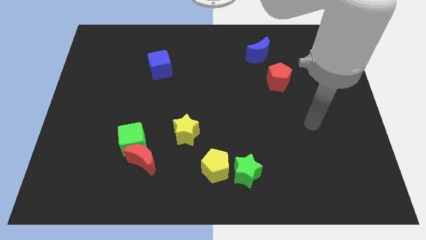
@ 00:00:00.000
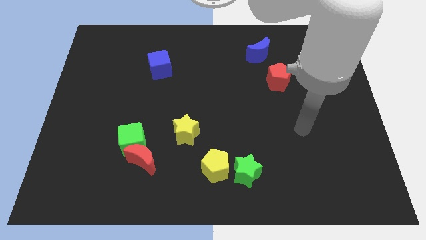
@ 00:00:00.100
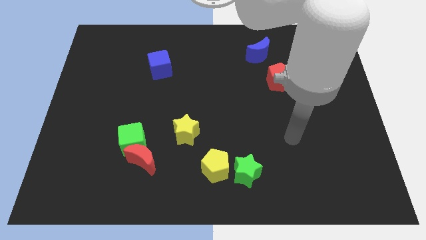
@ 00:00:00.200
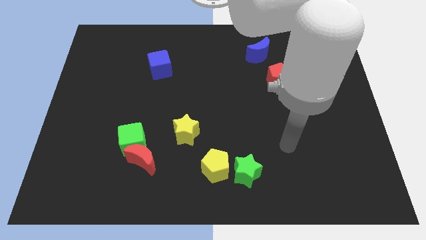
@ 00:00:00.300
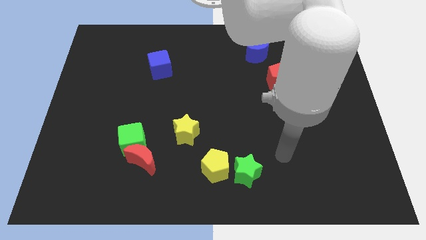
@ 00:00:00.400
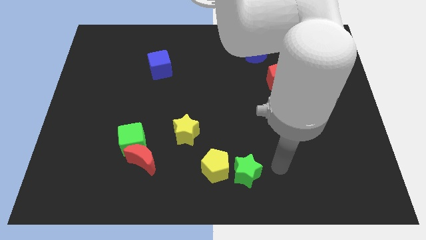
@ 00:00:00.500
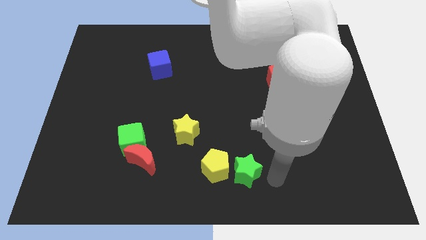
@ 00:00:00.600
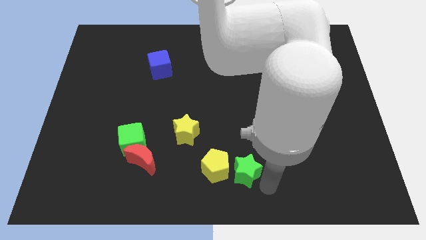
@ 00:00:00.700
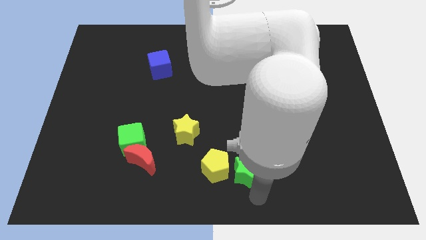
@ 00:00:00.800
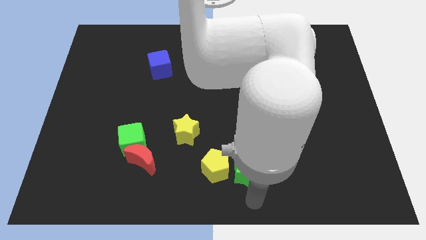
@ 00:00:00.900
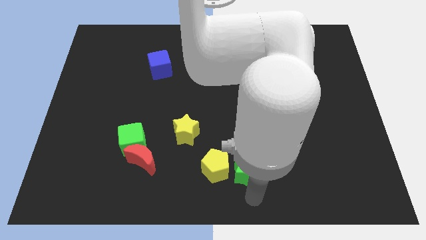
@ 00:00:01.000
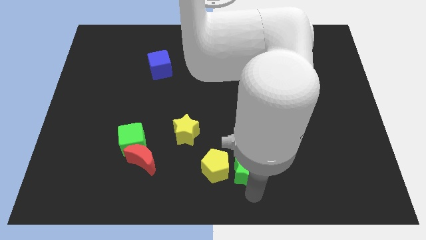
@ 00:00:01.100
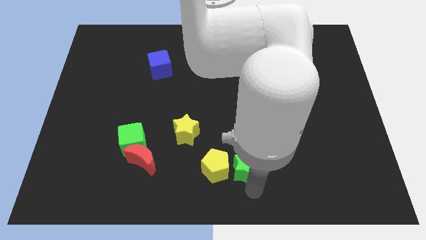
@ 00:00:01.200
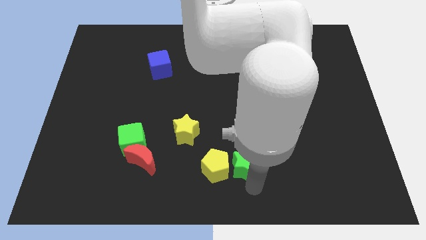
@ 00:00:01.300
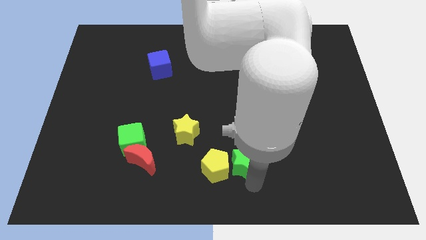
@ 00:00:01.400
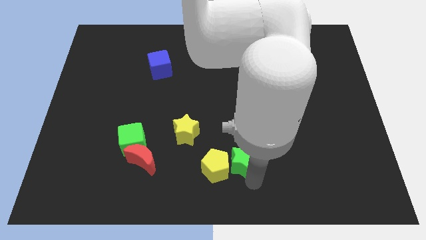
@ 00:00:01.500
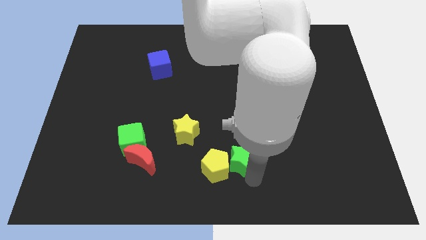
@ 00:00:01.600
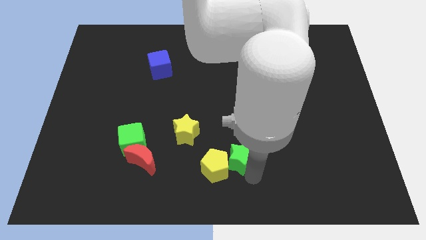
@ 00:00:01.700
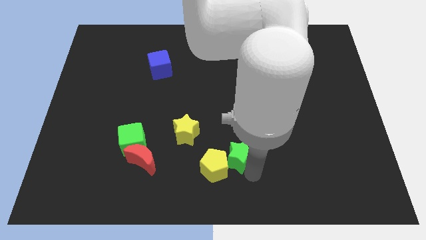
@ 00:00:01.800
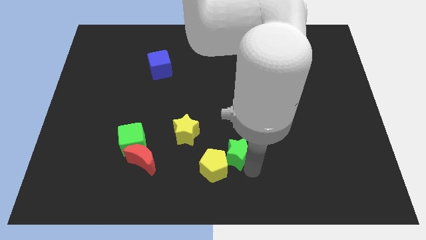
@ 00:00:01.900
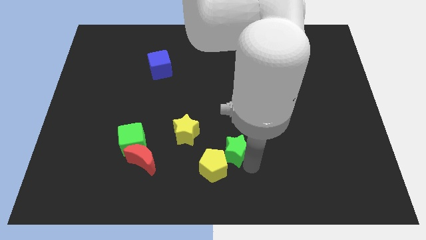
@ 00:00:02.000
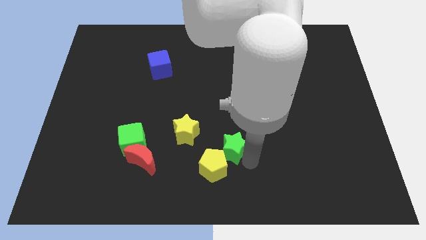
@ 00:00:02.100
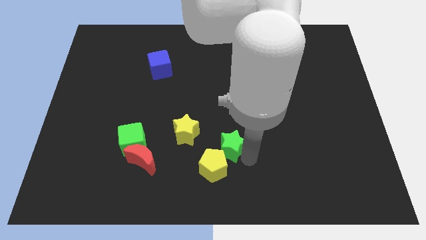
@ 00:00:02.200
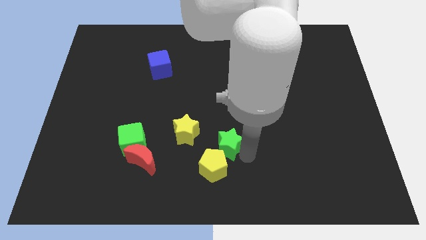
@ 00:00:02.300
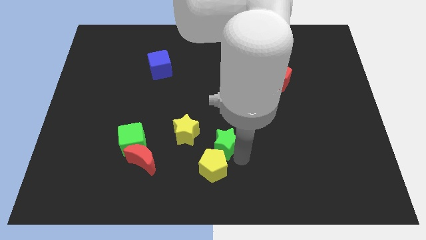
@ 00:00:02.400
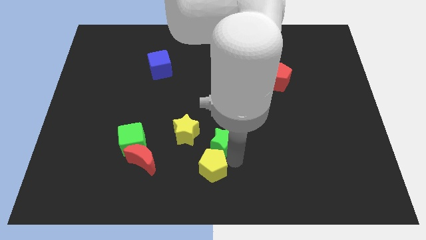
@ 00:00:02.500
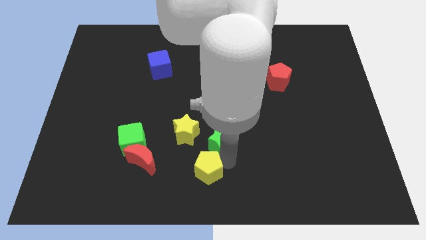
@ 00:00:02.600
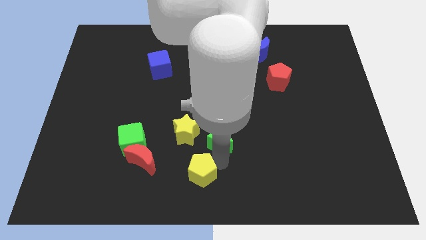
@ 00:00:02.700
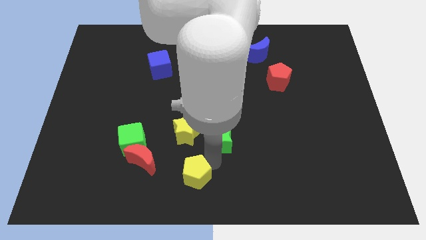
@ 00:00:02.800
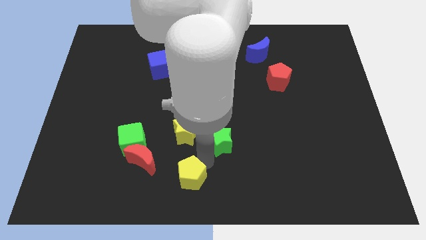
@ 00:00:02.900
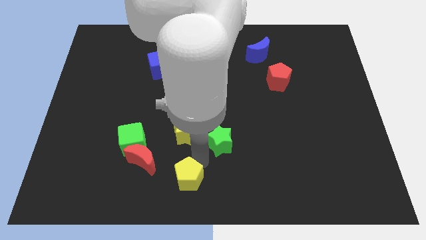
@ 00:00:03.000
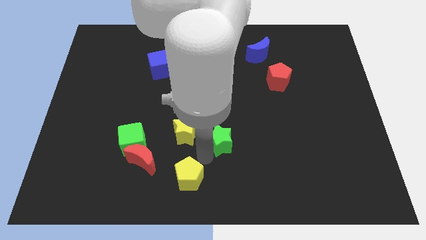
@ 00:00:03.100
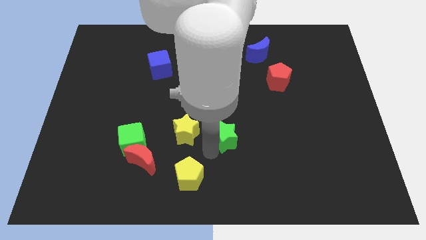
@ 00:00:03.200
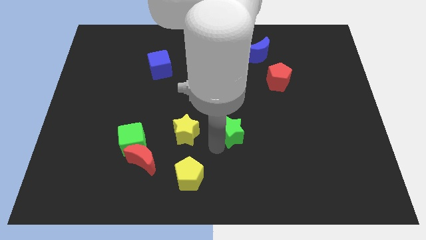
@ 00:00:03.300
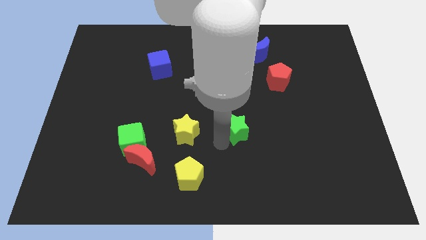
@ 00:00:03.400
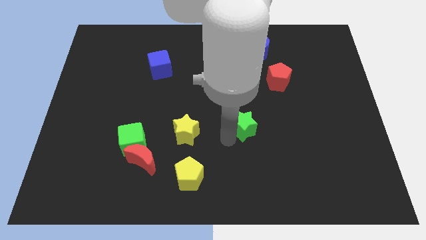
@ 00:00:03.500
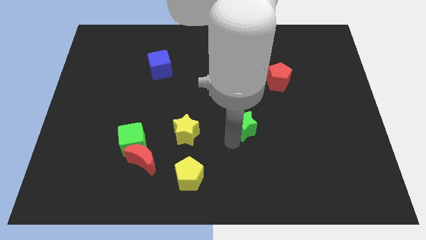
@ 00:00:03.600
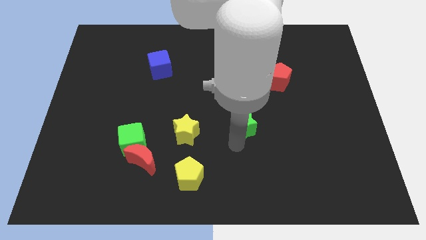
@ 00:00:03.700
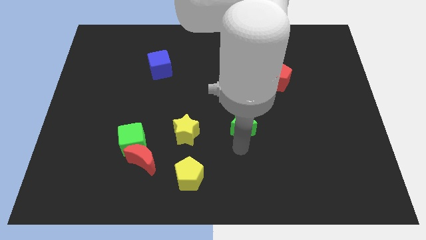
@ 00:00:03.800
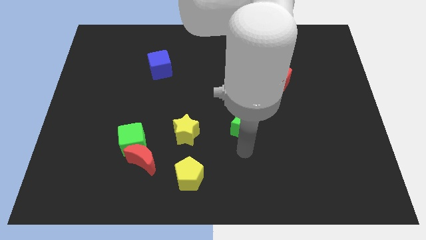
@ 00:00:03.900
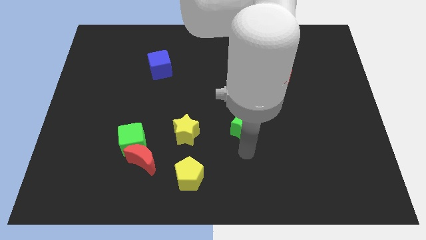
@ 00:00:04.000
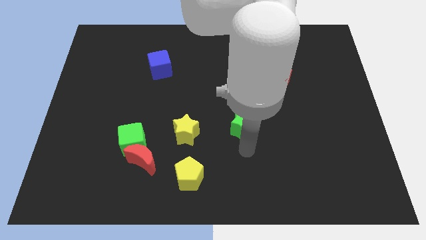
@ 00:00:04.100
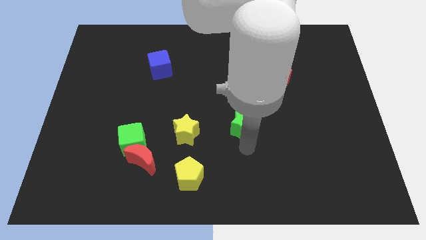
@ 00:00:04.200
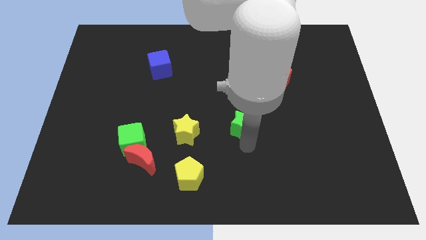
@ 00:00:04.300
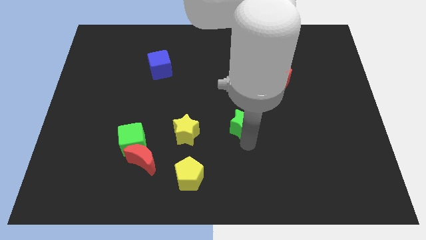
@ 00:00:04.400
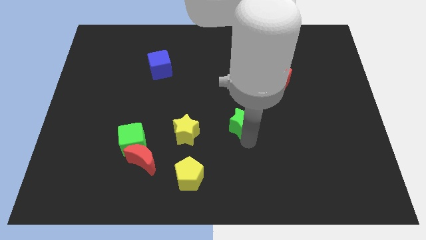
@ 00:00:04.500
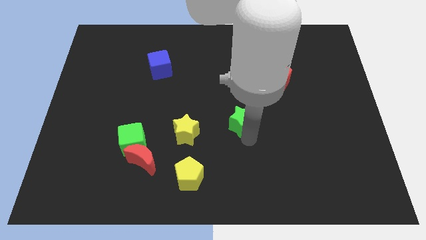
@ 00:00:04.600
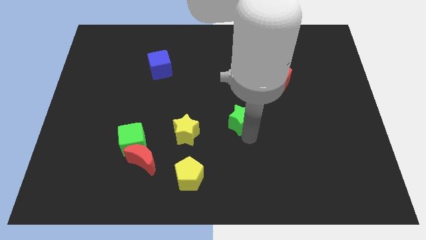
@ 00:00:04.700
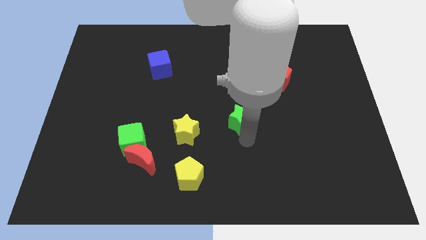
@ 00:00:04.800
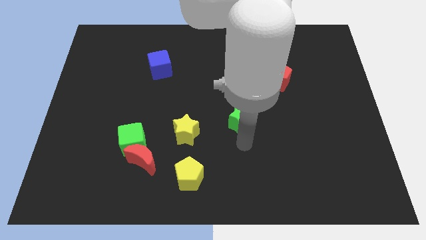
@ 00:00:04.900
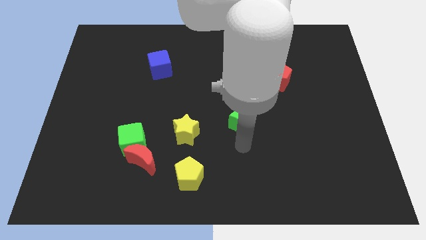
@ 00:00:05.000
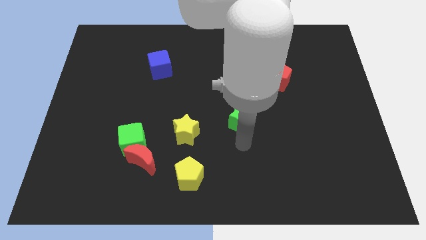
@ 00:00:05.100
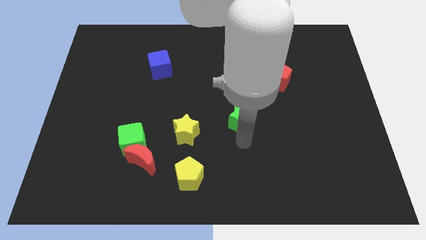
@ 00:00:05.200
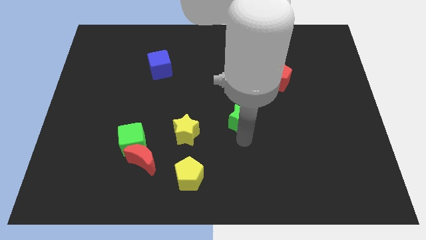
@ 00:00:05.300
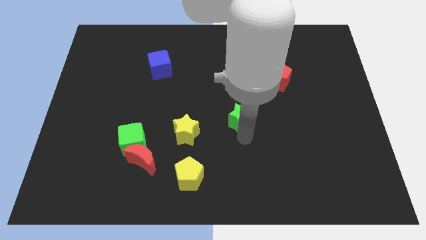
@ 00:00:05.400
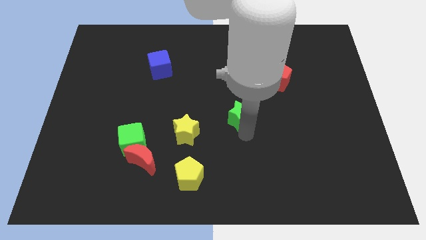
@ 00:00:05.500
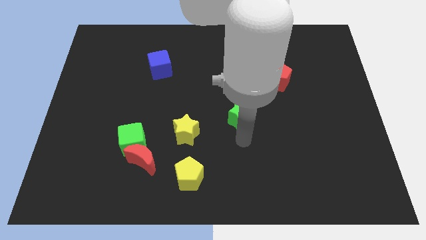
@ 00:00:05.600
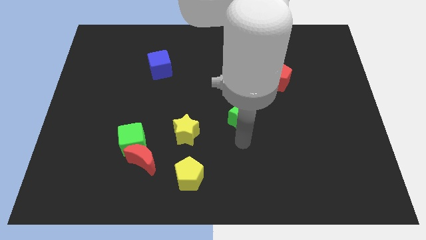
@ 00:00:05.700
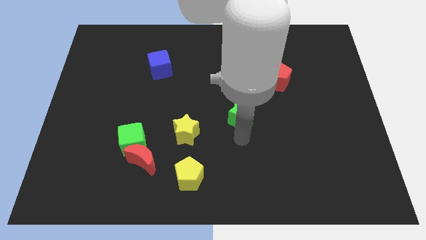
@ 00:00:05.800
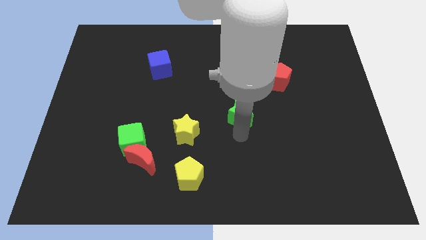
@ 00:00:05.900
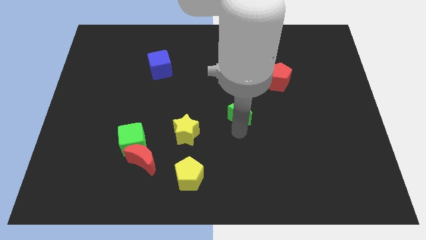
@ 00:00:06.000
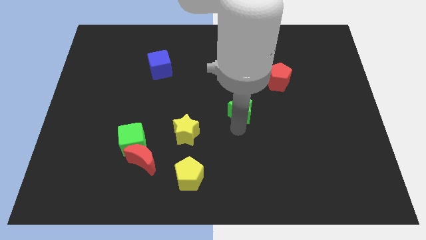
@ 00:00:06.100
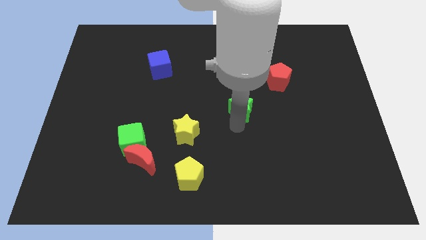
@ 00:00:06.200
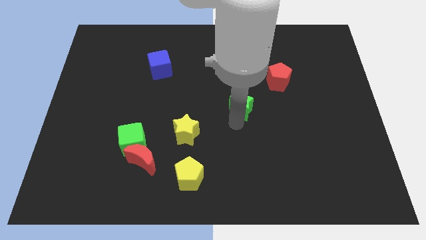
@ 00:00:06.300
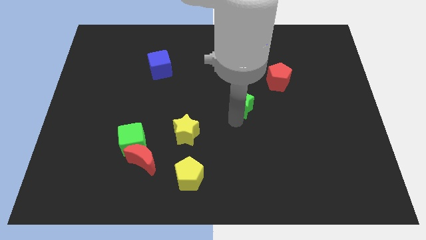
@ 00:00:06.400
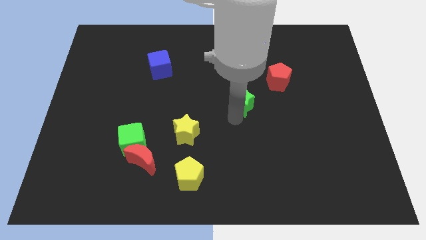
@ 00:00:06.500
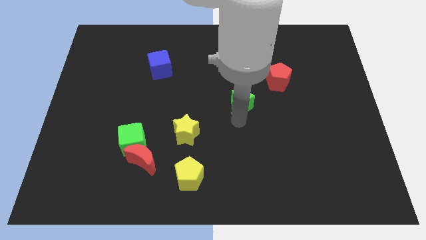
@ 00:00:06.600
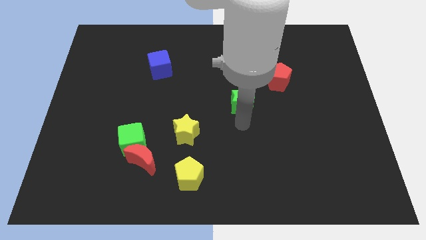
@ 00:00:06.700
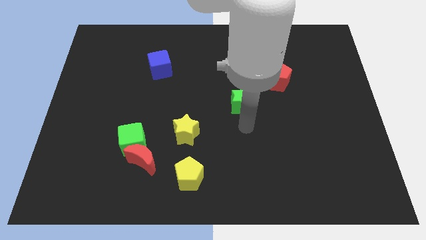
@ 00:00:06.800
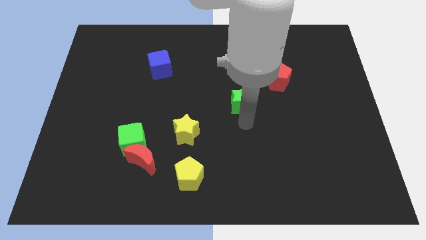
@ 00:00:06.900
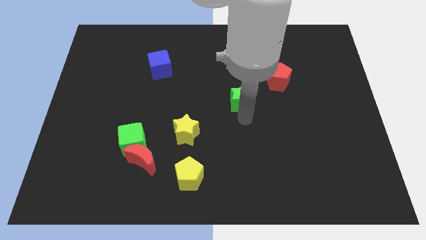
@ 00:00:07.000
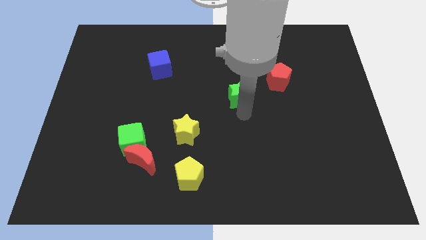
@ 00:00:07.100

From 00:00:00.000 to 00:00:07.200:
push the green star up

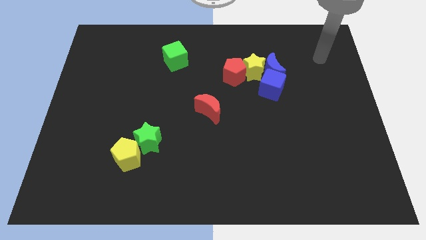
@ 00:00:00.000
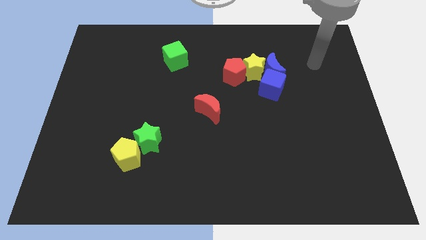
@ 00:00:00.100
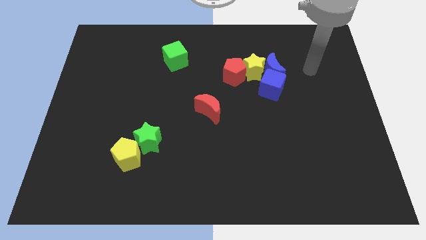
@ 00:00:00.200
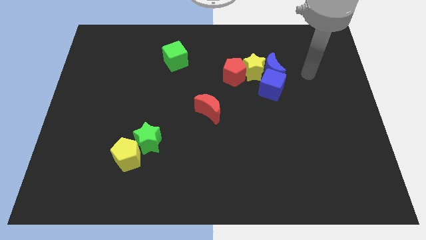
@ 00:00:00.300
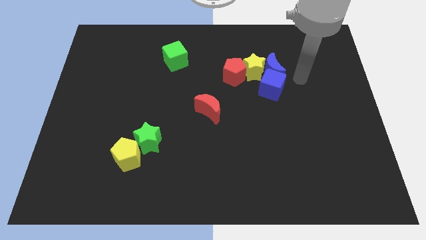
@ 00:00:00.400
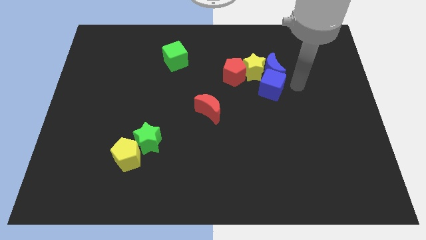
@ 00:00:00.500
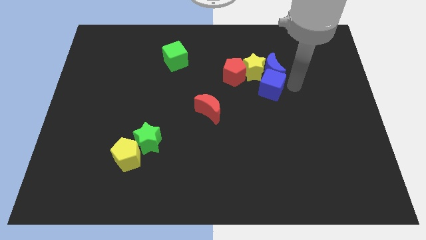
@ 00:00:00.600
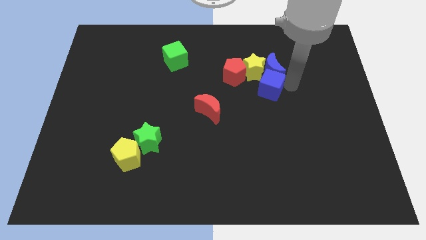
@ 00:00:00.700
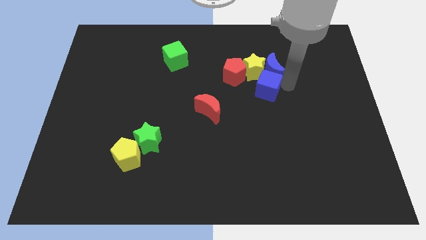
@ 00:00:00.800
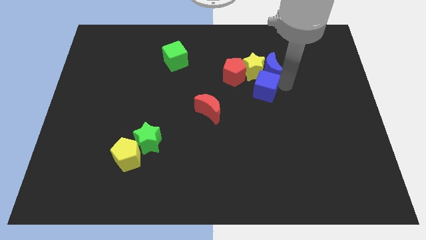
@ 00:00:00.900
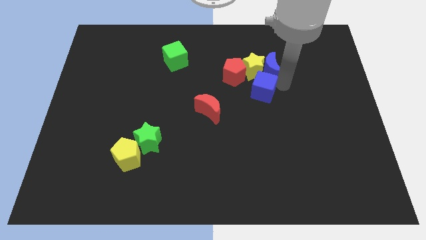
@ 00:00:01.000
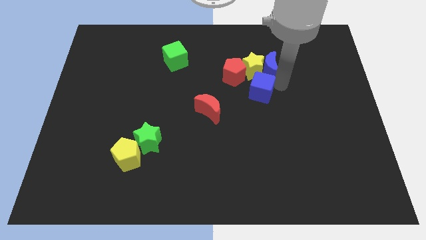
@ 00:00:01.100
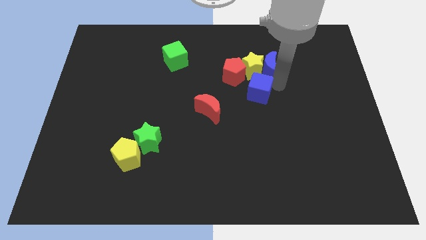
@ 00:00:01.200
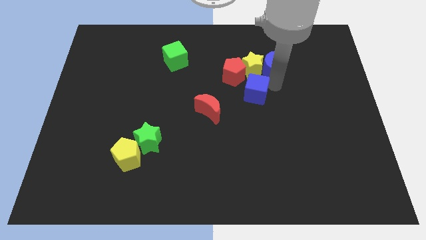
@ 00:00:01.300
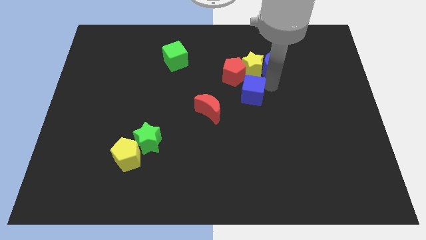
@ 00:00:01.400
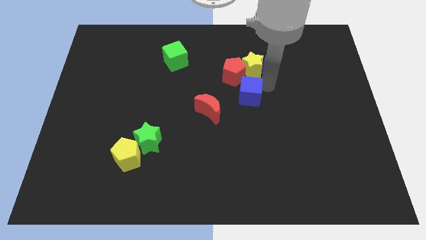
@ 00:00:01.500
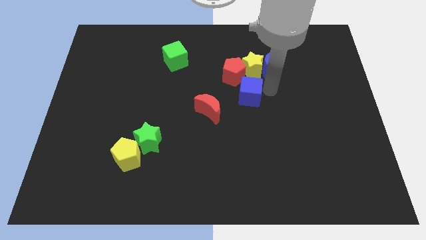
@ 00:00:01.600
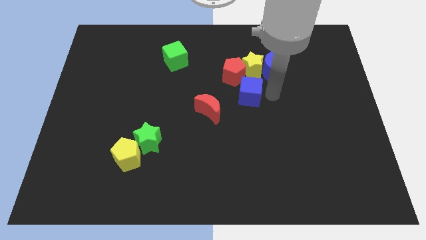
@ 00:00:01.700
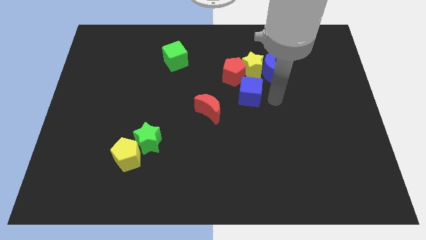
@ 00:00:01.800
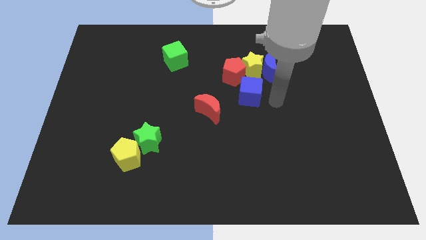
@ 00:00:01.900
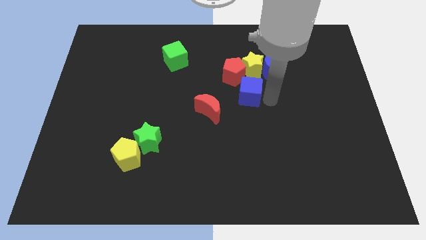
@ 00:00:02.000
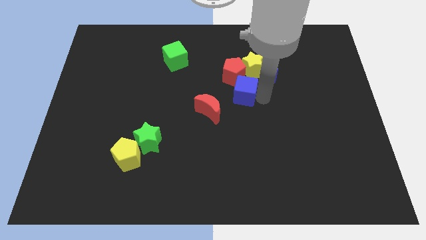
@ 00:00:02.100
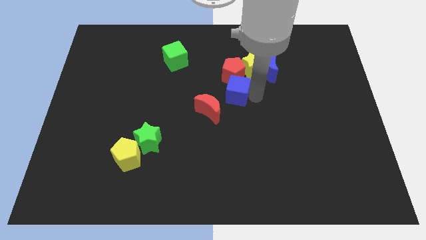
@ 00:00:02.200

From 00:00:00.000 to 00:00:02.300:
slide the blue cube a bit to the left
